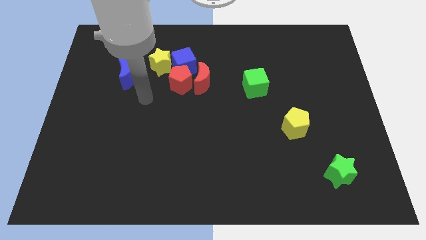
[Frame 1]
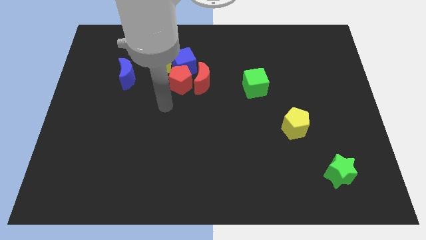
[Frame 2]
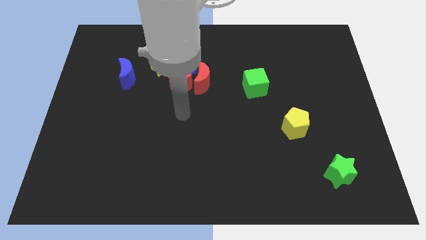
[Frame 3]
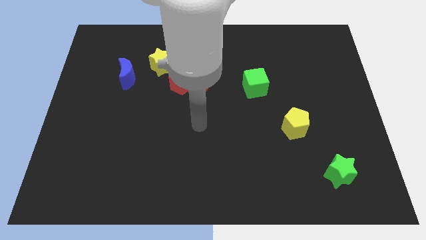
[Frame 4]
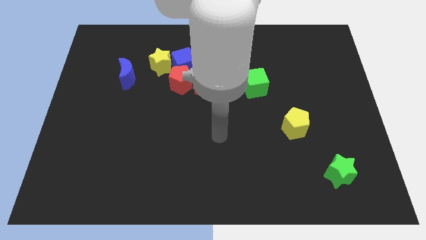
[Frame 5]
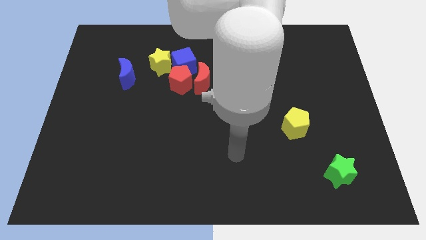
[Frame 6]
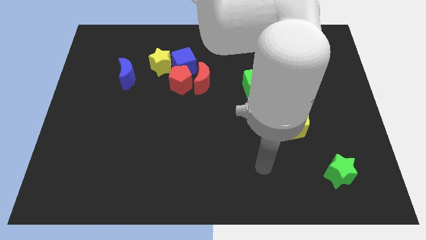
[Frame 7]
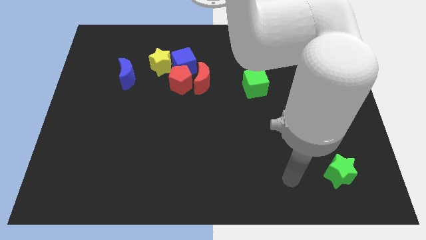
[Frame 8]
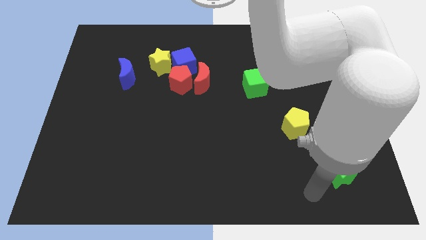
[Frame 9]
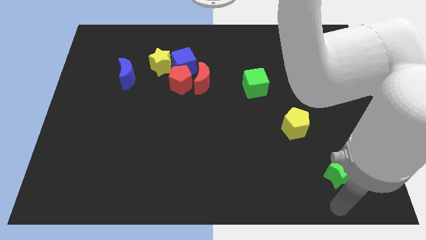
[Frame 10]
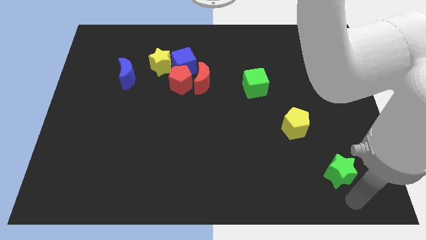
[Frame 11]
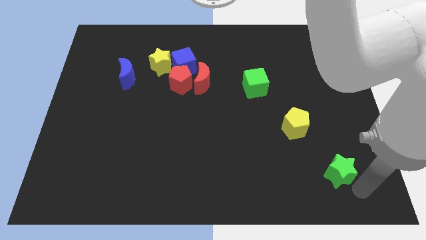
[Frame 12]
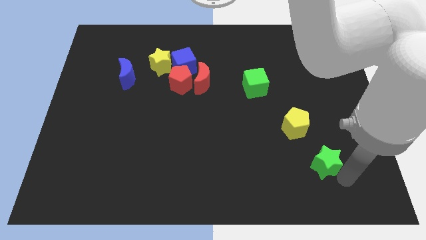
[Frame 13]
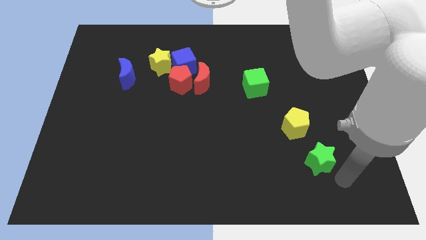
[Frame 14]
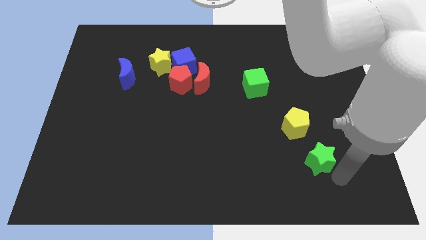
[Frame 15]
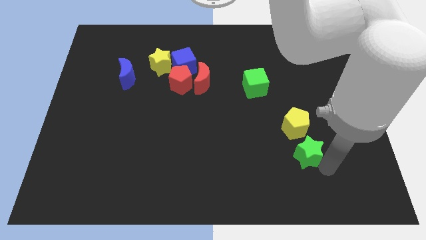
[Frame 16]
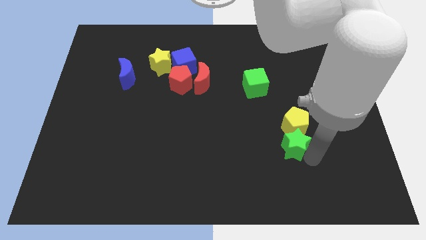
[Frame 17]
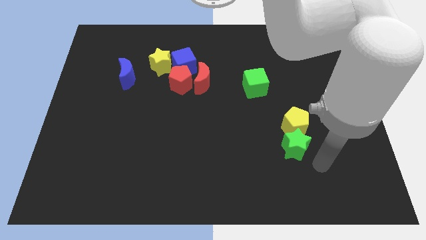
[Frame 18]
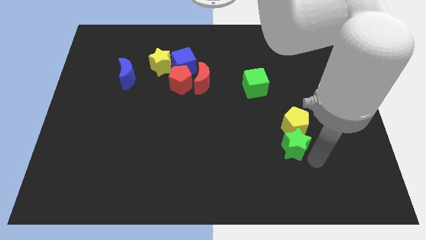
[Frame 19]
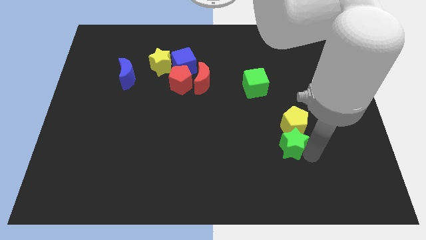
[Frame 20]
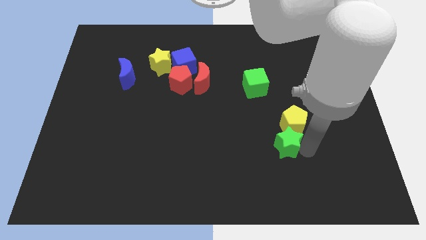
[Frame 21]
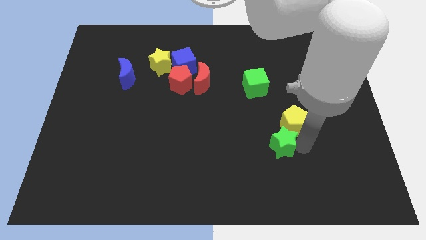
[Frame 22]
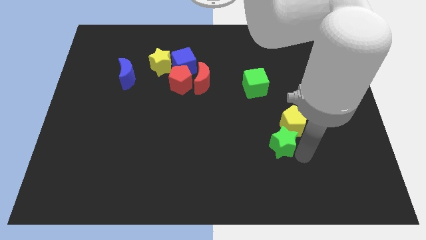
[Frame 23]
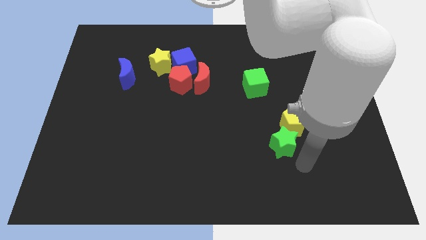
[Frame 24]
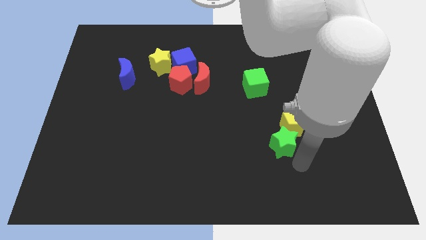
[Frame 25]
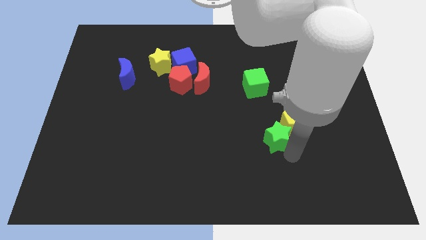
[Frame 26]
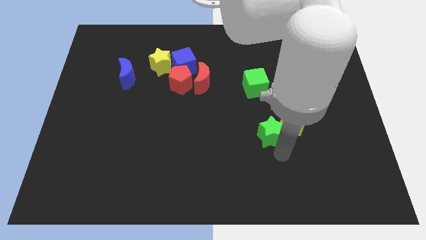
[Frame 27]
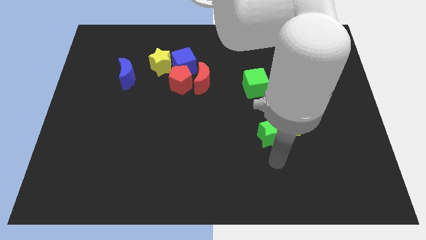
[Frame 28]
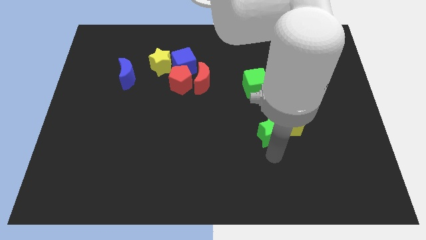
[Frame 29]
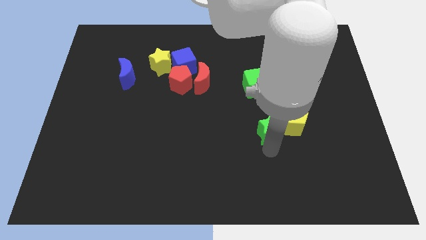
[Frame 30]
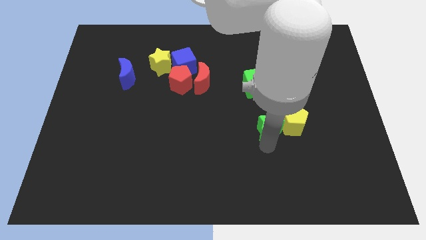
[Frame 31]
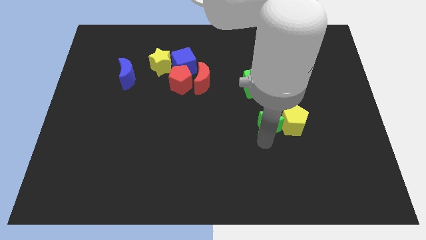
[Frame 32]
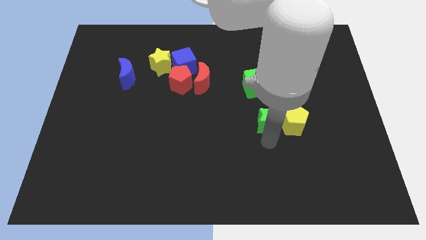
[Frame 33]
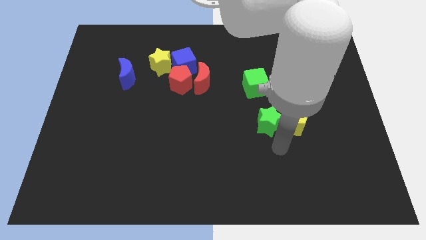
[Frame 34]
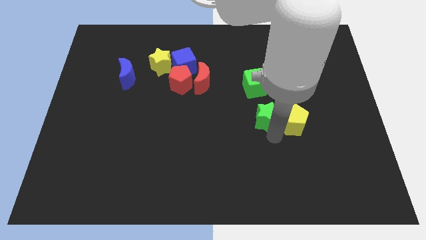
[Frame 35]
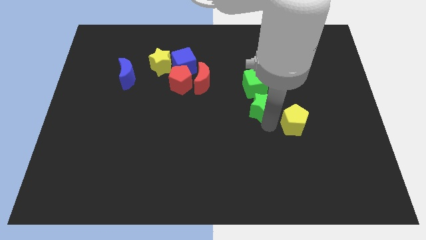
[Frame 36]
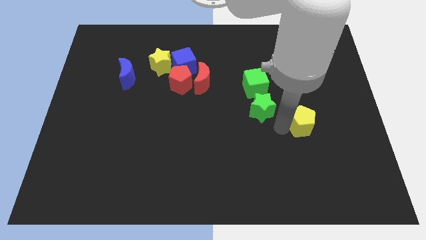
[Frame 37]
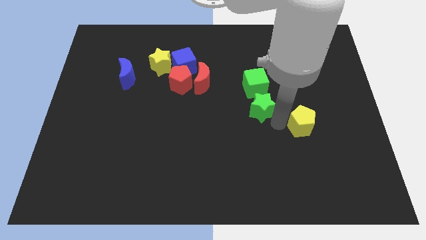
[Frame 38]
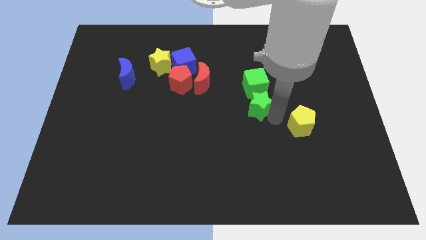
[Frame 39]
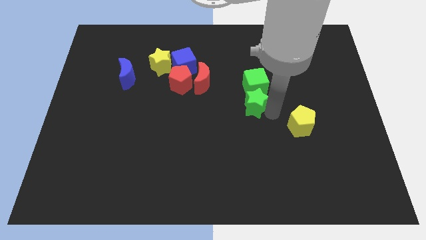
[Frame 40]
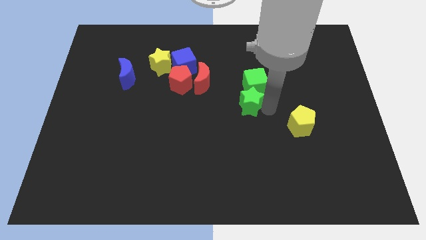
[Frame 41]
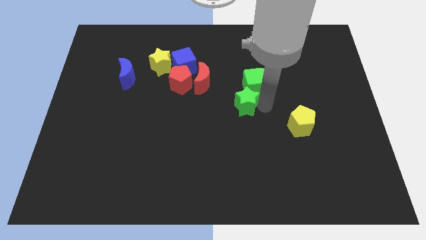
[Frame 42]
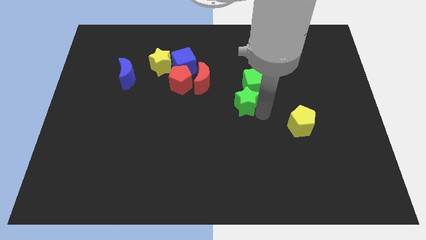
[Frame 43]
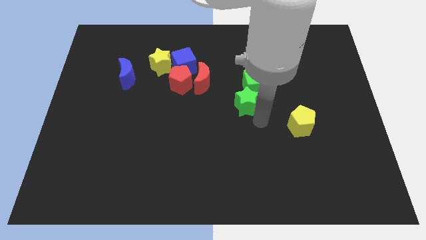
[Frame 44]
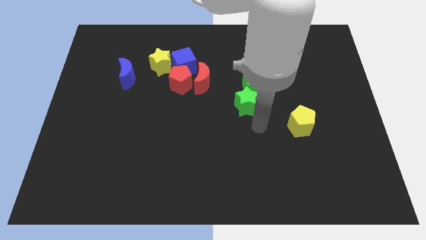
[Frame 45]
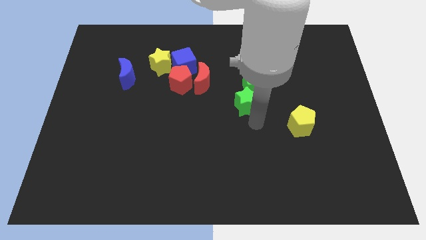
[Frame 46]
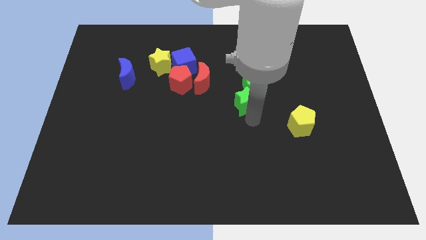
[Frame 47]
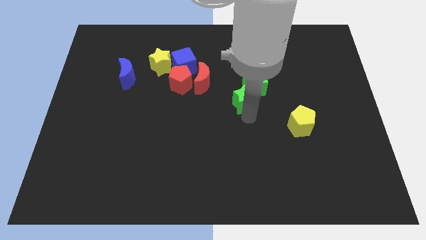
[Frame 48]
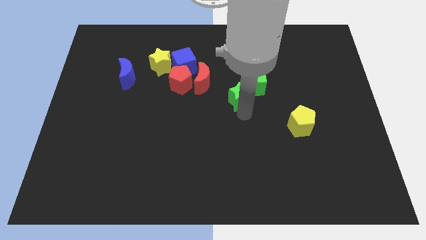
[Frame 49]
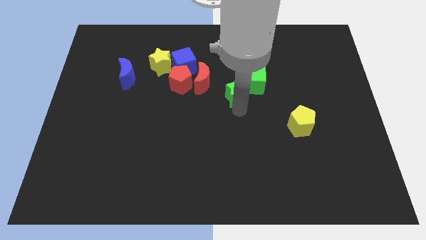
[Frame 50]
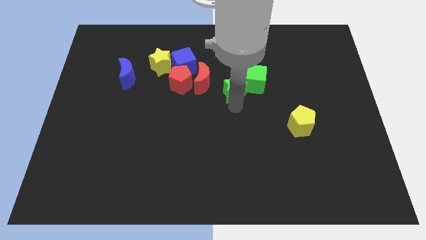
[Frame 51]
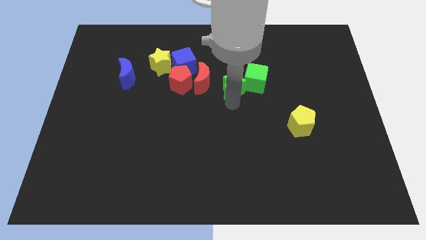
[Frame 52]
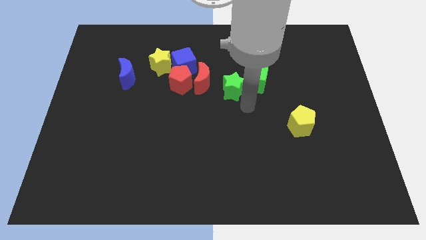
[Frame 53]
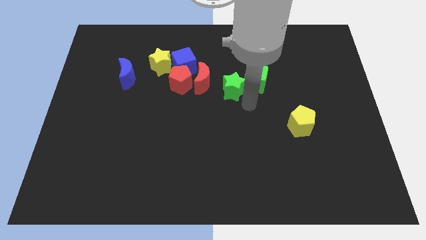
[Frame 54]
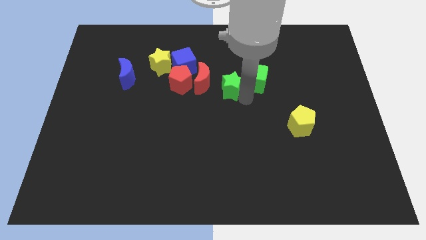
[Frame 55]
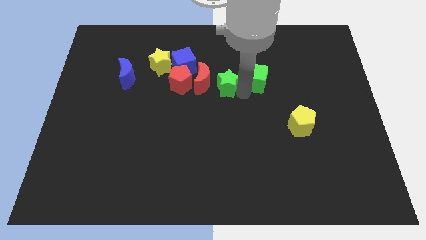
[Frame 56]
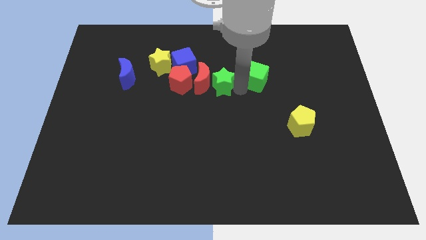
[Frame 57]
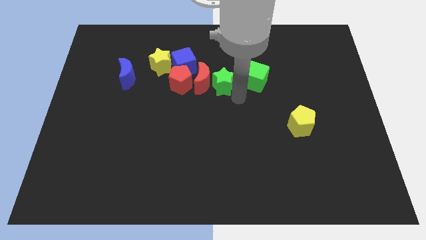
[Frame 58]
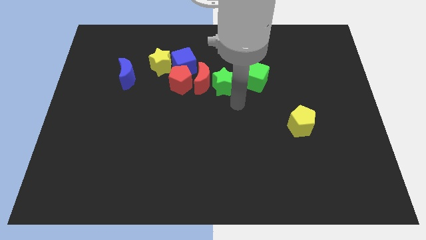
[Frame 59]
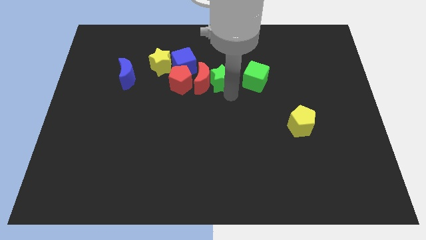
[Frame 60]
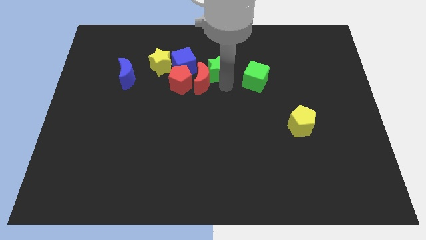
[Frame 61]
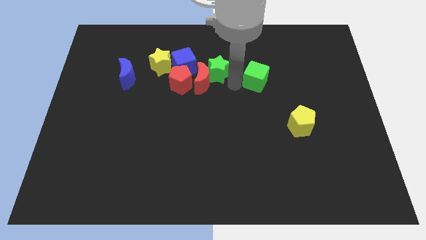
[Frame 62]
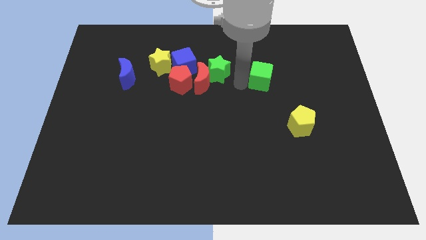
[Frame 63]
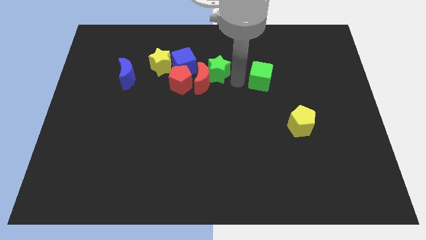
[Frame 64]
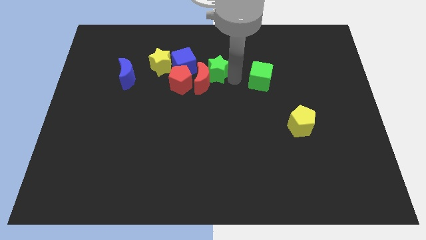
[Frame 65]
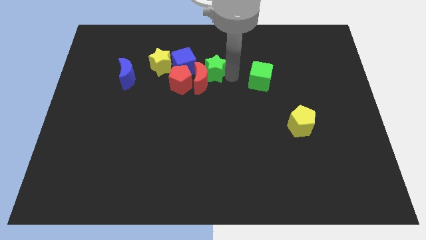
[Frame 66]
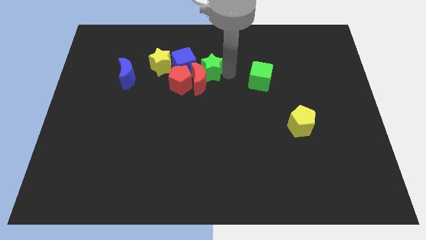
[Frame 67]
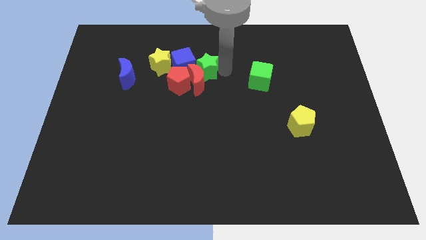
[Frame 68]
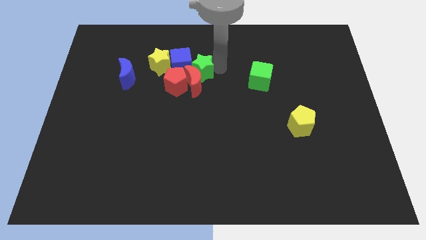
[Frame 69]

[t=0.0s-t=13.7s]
move the green star to the blue cube

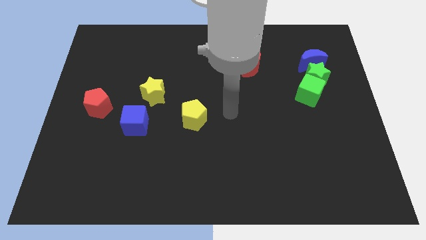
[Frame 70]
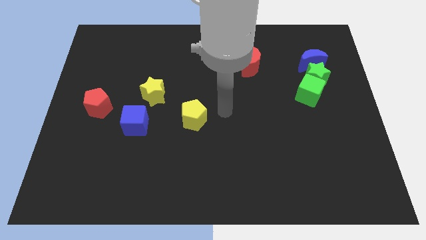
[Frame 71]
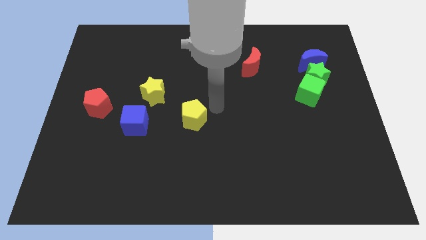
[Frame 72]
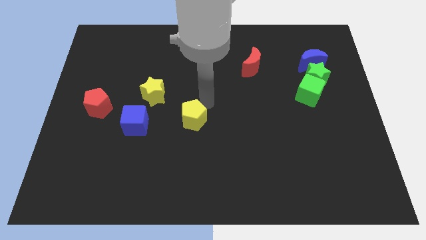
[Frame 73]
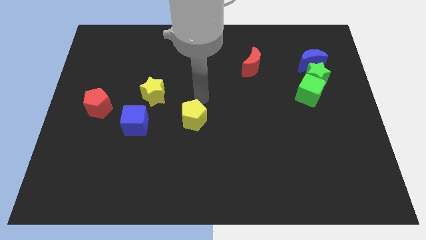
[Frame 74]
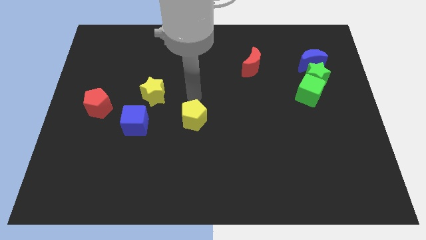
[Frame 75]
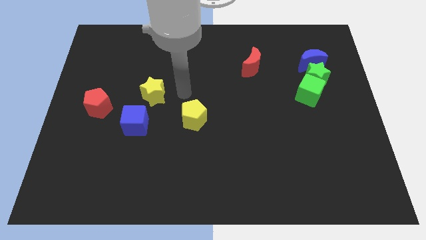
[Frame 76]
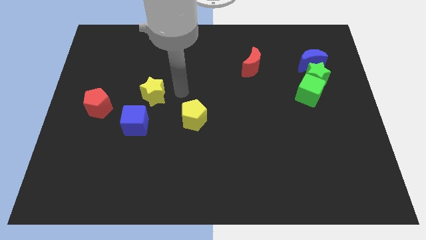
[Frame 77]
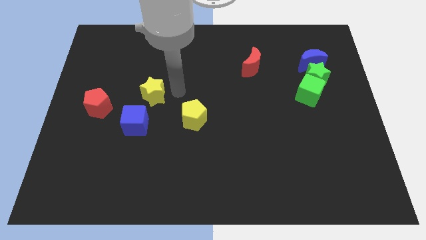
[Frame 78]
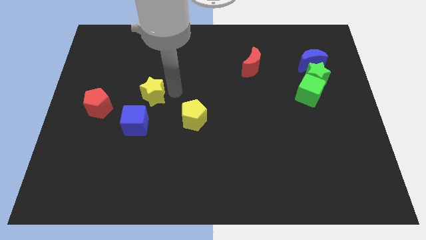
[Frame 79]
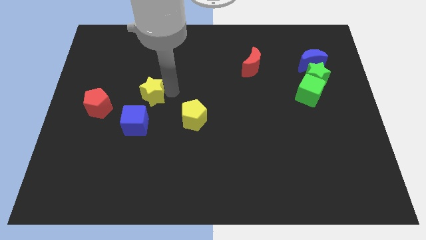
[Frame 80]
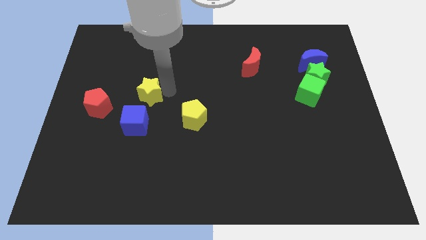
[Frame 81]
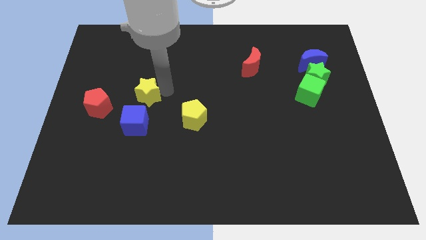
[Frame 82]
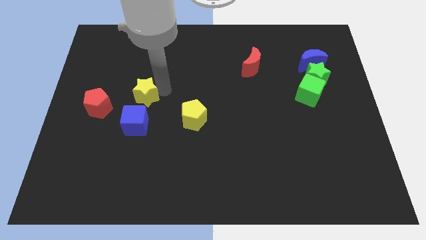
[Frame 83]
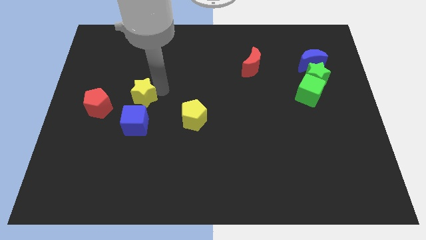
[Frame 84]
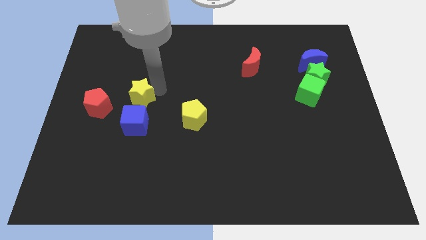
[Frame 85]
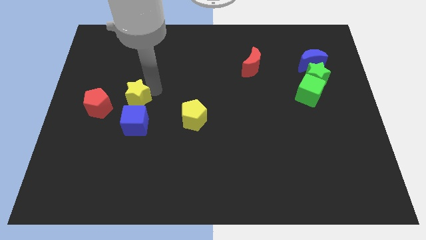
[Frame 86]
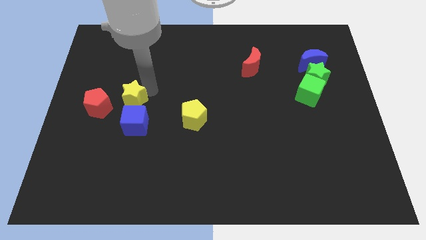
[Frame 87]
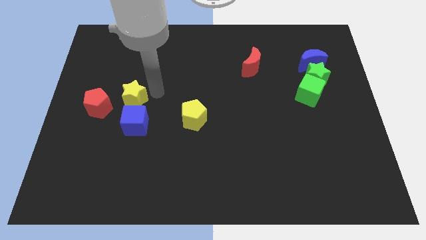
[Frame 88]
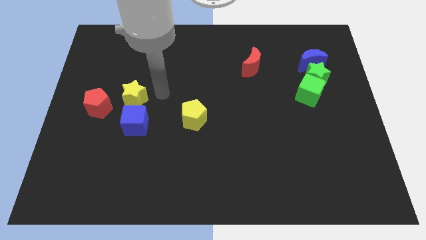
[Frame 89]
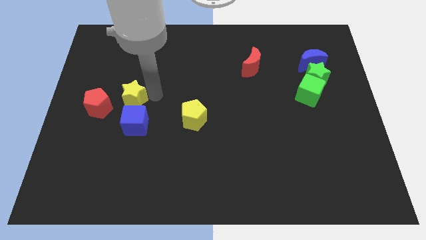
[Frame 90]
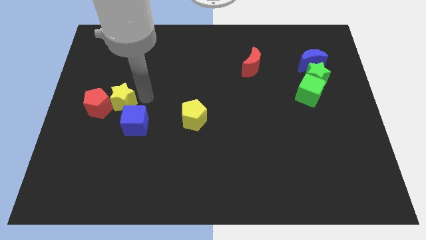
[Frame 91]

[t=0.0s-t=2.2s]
push the yellow star to the red pentagon
